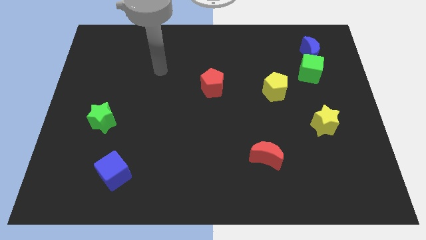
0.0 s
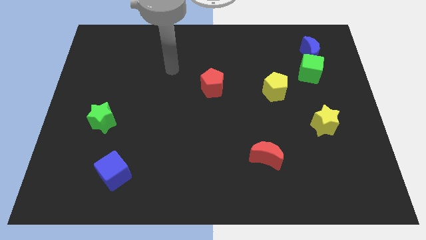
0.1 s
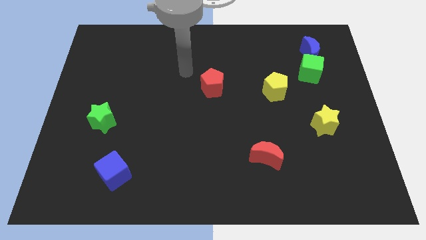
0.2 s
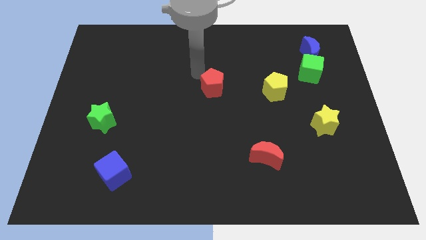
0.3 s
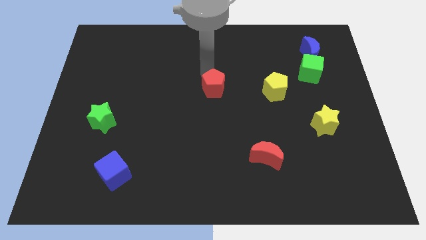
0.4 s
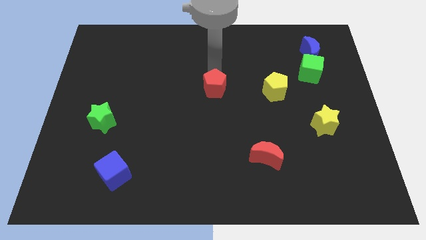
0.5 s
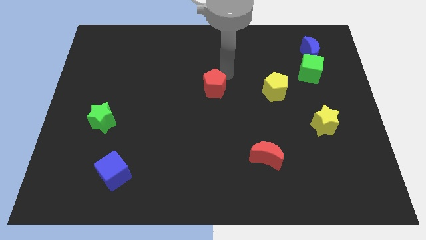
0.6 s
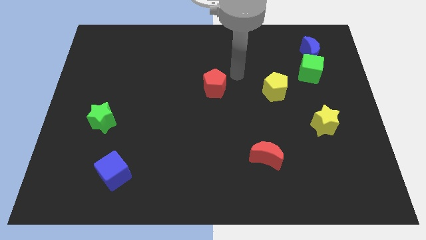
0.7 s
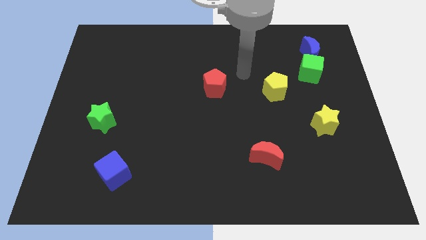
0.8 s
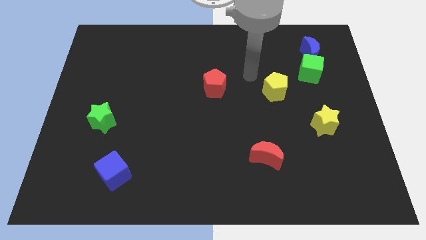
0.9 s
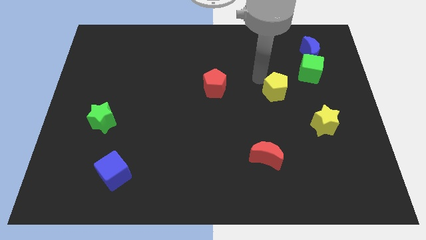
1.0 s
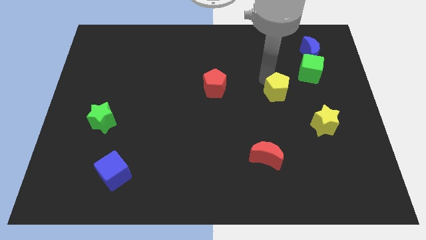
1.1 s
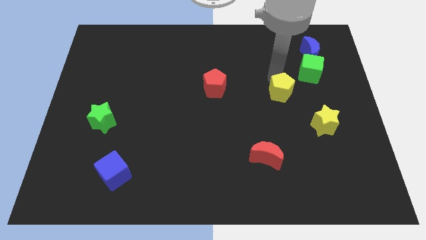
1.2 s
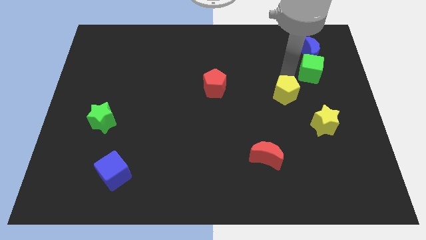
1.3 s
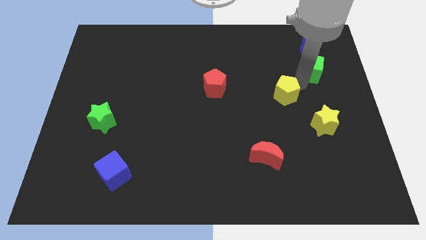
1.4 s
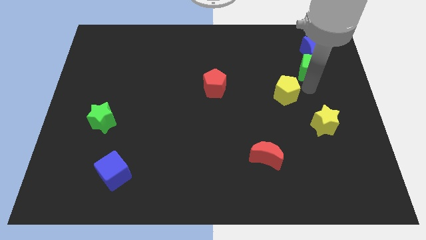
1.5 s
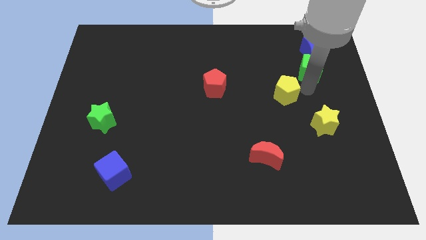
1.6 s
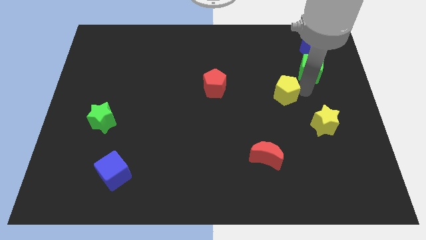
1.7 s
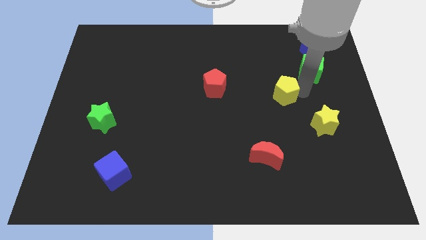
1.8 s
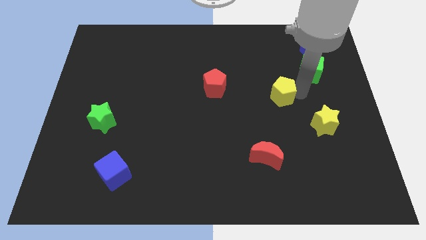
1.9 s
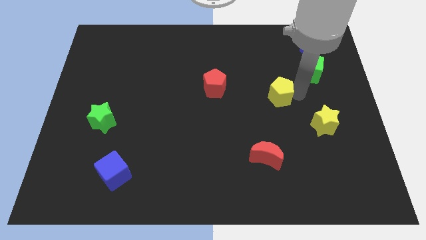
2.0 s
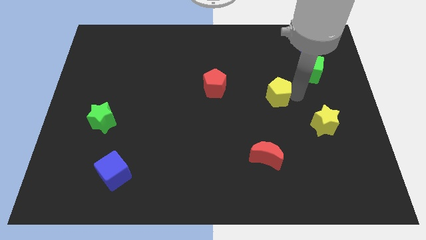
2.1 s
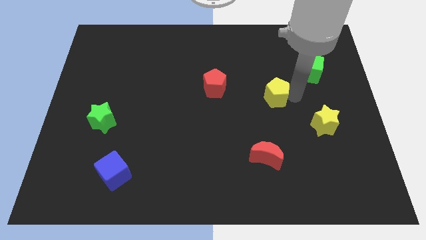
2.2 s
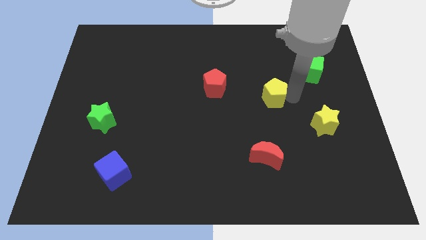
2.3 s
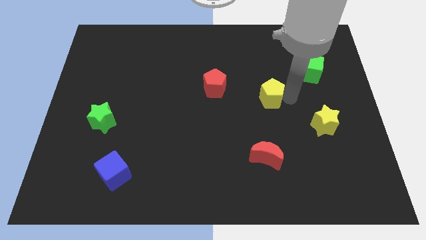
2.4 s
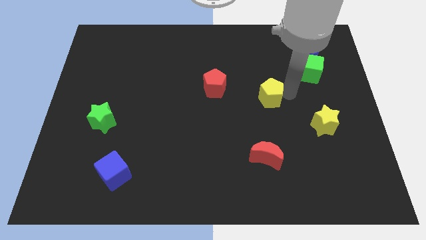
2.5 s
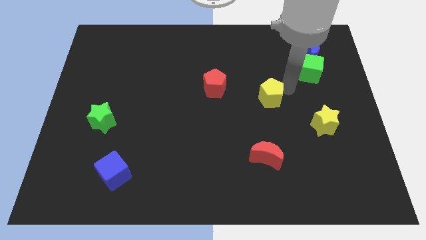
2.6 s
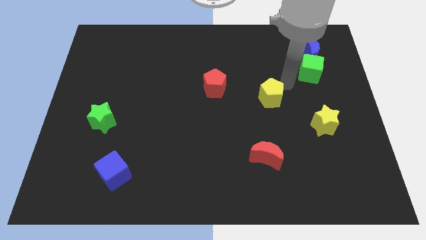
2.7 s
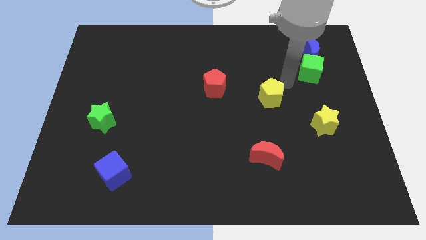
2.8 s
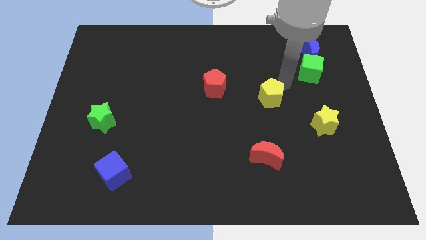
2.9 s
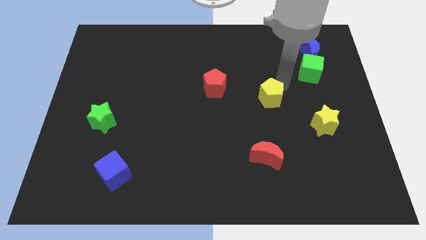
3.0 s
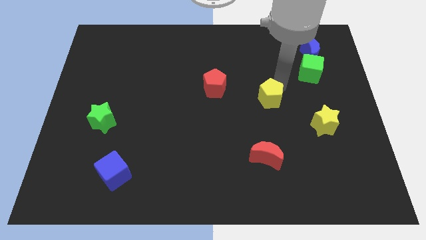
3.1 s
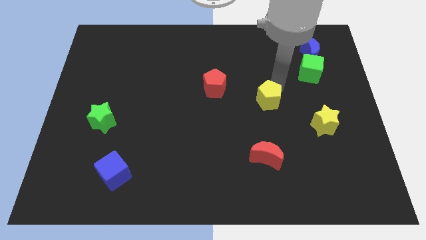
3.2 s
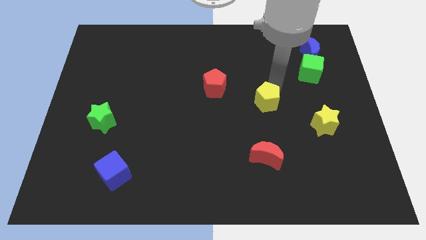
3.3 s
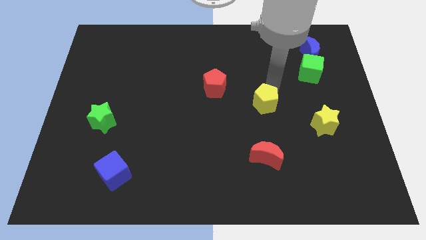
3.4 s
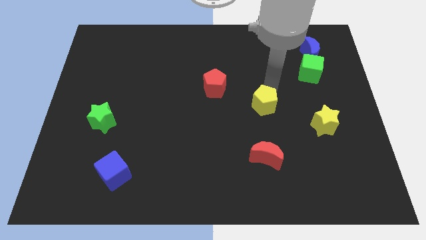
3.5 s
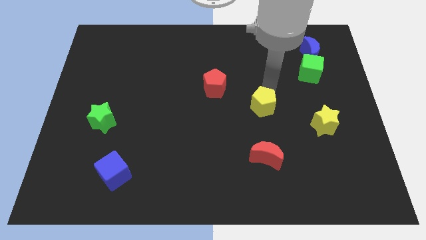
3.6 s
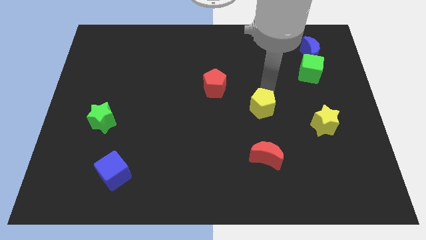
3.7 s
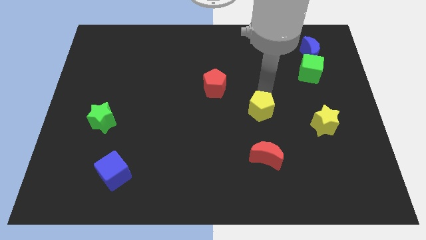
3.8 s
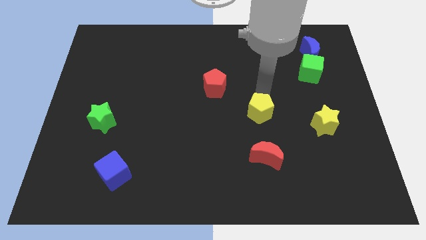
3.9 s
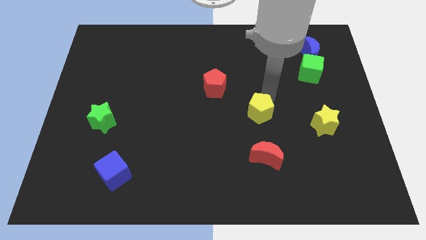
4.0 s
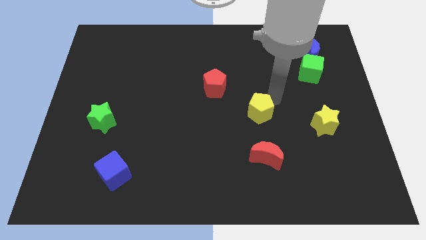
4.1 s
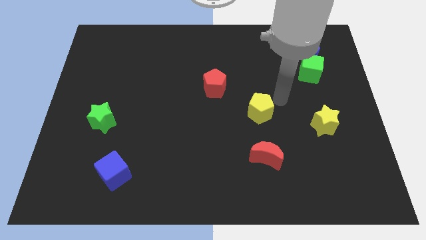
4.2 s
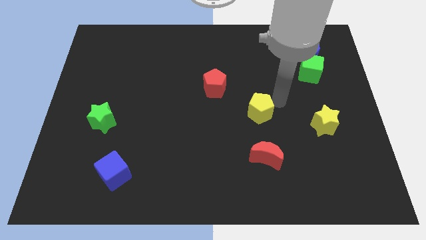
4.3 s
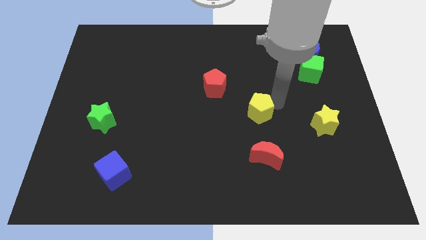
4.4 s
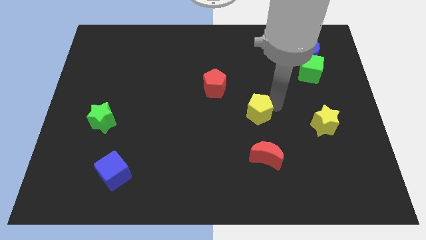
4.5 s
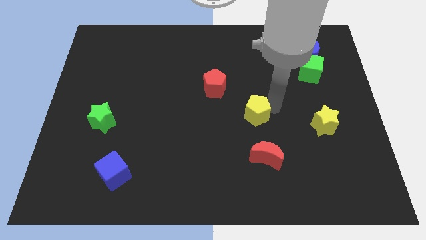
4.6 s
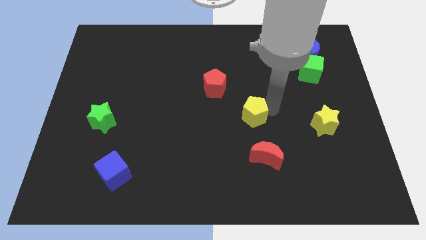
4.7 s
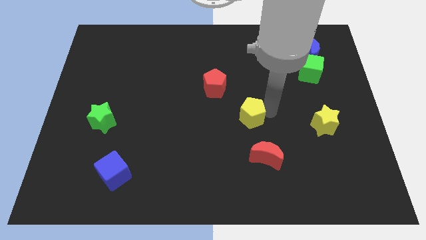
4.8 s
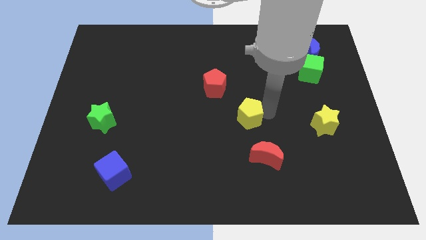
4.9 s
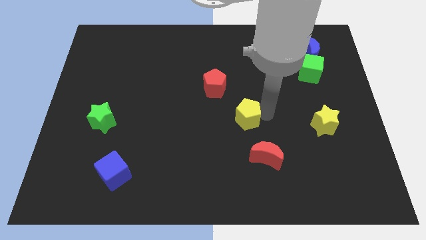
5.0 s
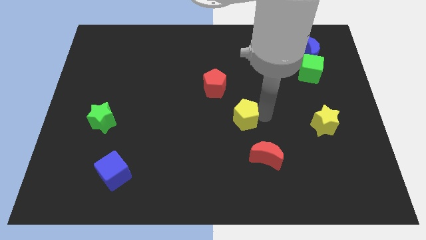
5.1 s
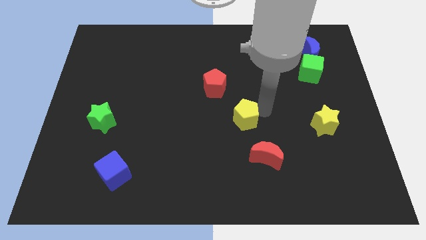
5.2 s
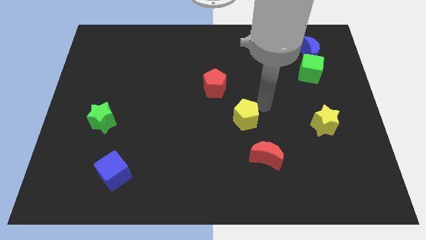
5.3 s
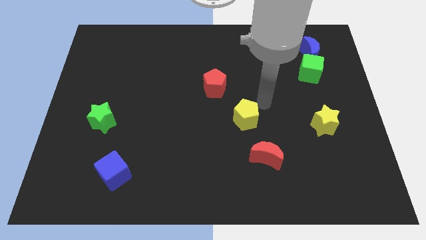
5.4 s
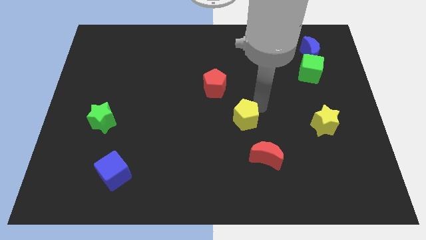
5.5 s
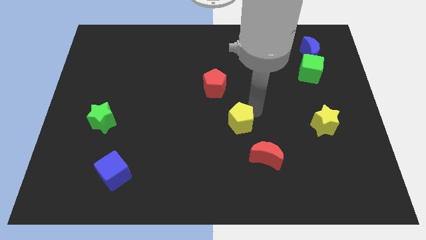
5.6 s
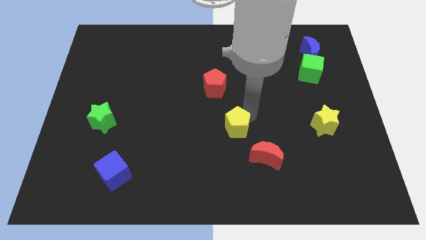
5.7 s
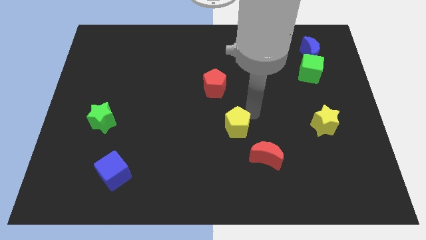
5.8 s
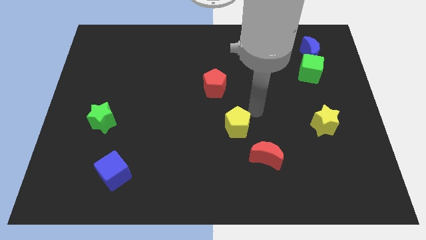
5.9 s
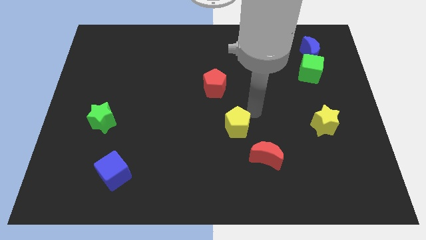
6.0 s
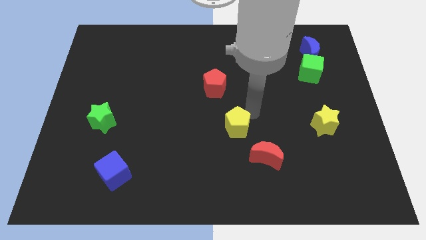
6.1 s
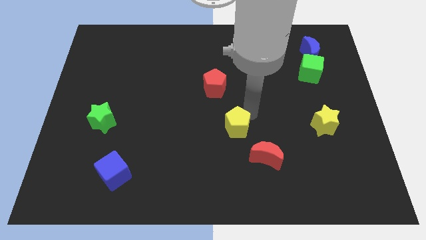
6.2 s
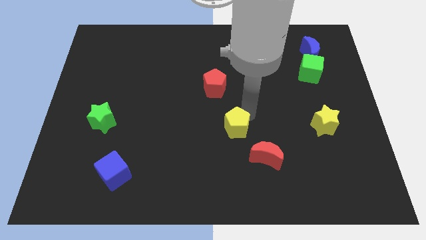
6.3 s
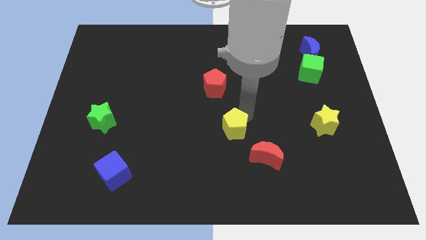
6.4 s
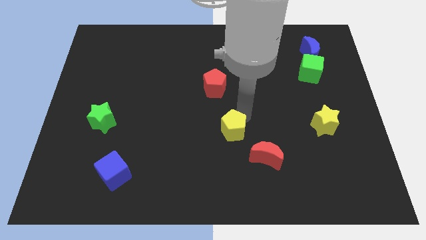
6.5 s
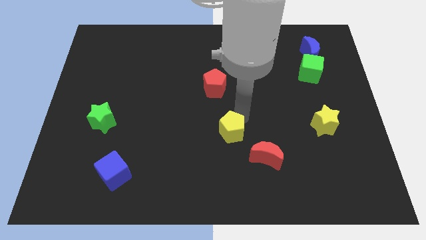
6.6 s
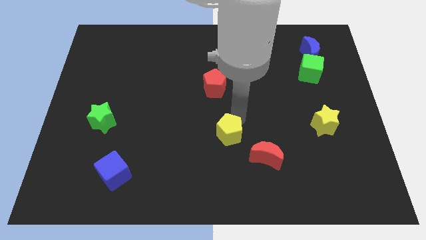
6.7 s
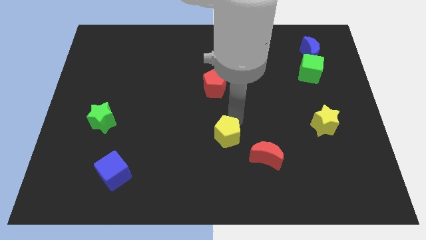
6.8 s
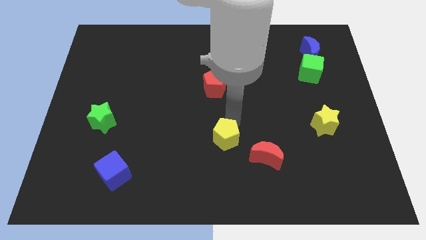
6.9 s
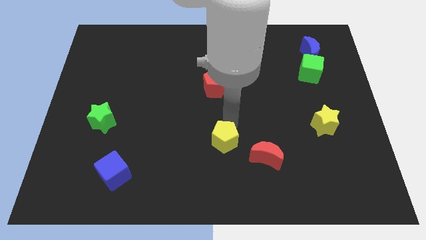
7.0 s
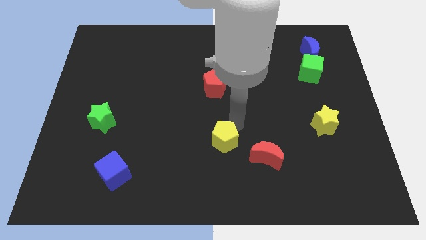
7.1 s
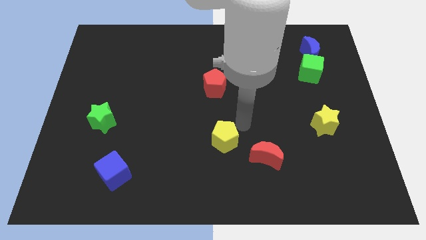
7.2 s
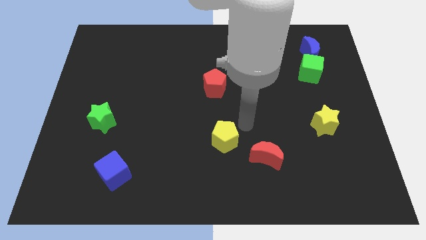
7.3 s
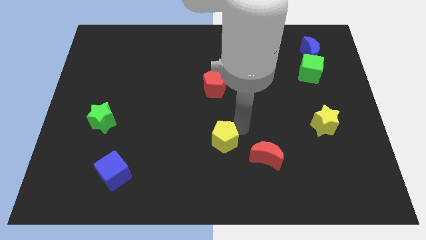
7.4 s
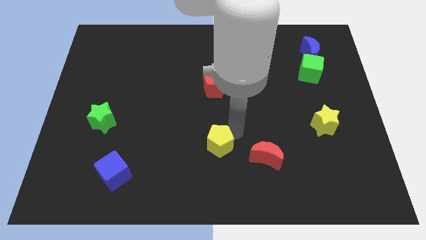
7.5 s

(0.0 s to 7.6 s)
push the yellow pentagon down and to the left

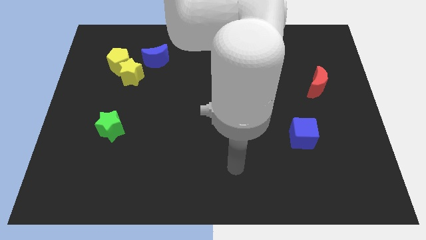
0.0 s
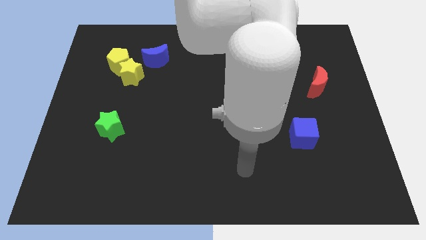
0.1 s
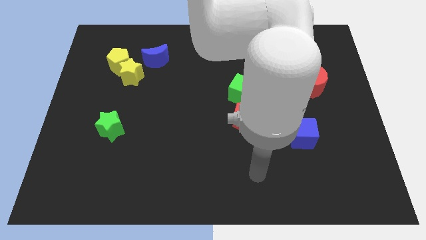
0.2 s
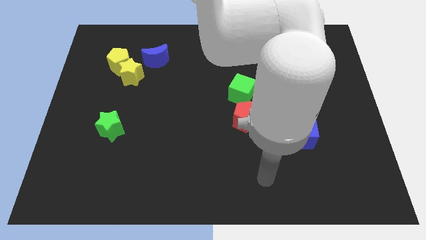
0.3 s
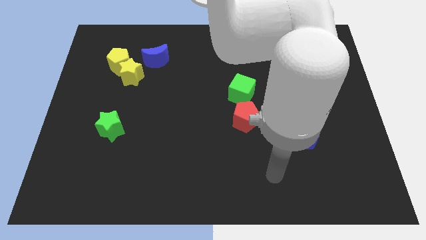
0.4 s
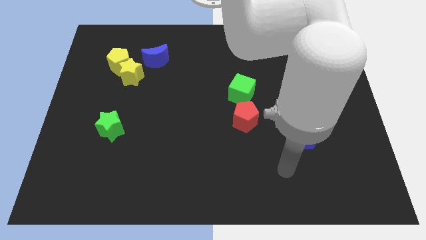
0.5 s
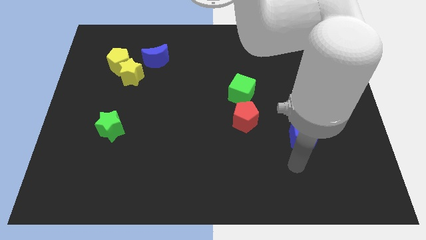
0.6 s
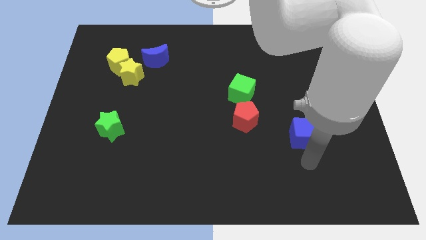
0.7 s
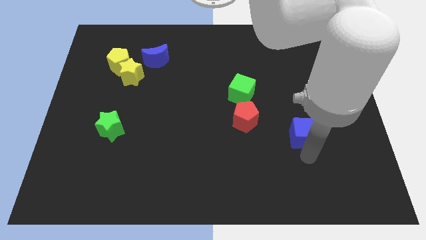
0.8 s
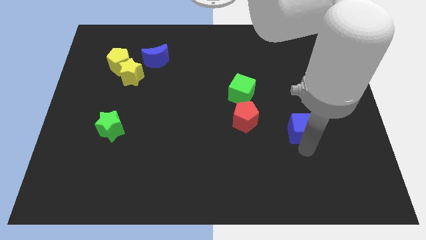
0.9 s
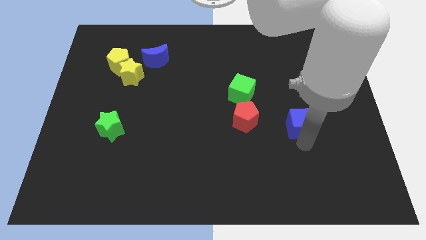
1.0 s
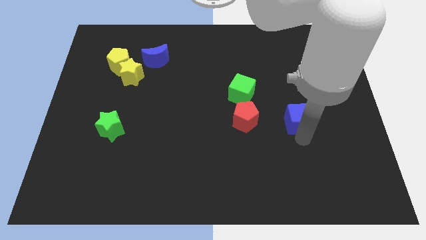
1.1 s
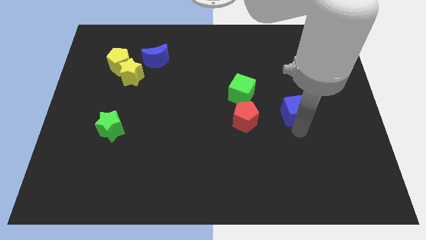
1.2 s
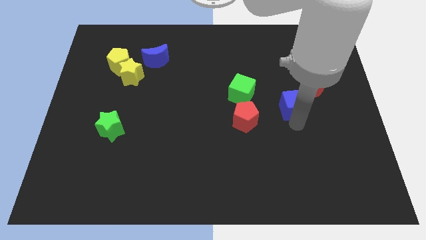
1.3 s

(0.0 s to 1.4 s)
slide the blue cube a bit up
